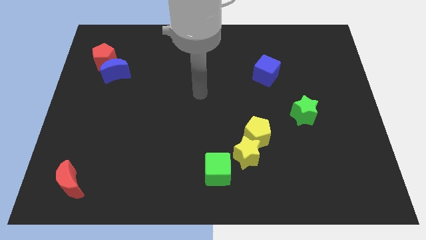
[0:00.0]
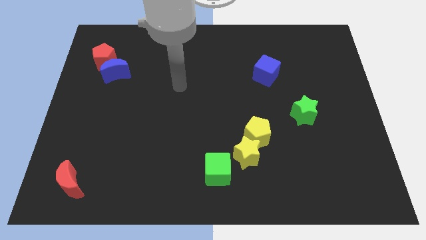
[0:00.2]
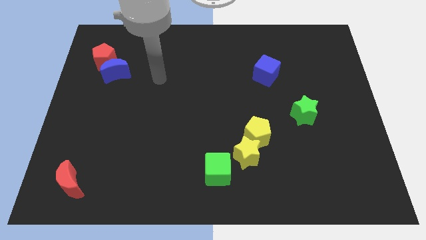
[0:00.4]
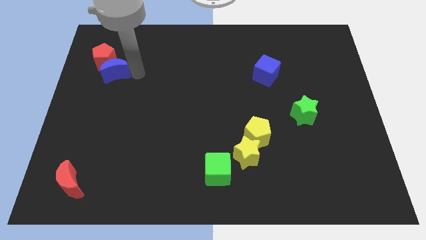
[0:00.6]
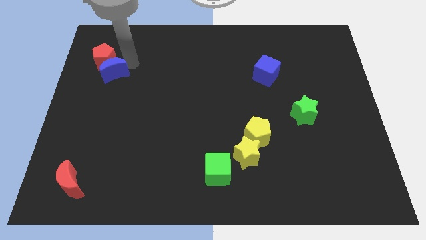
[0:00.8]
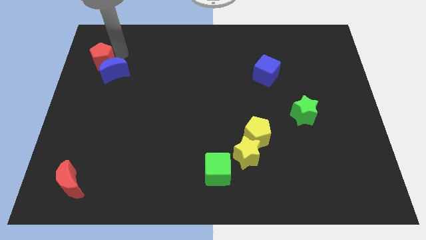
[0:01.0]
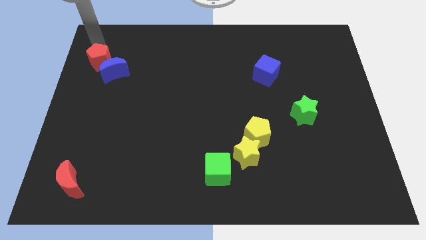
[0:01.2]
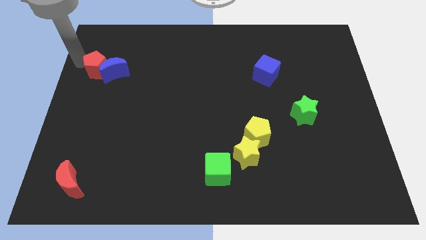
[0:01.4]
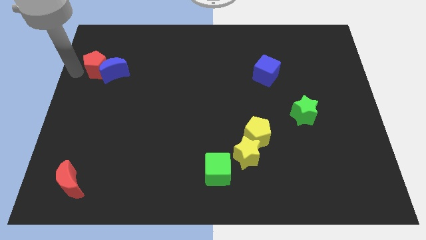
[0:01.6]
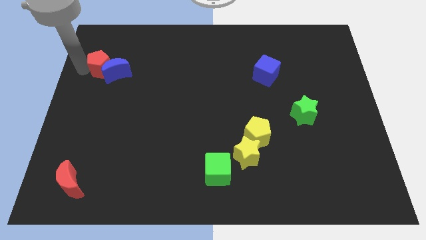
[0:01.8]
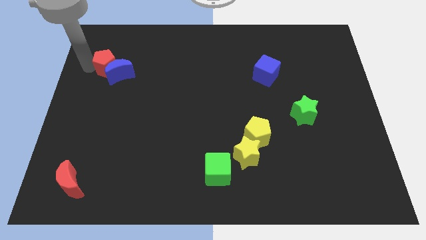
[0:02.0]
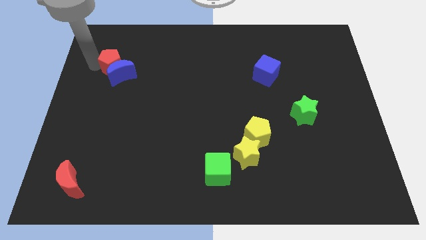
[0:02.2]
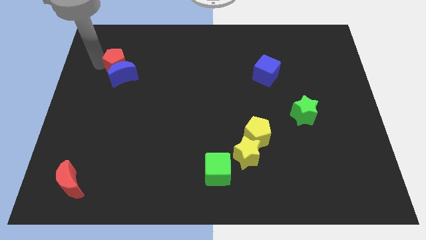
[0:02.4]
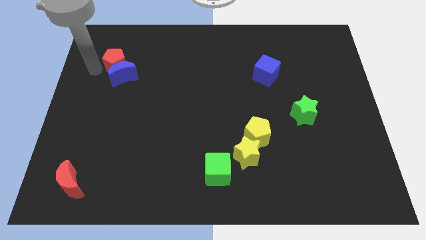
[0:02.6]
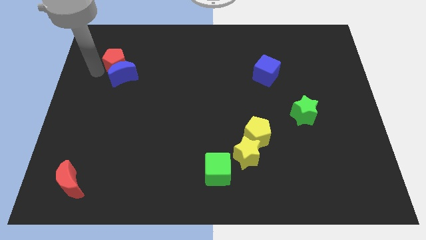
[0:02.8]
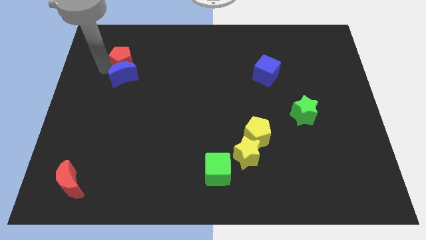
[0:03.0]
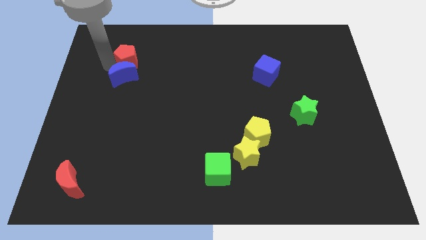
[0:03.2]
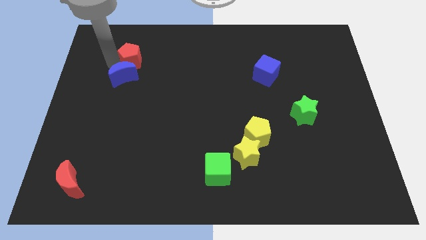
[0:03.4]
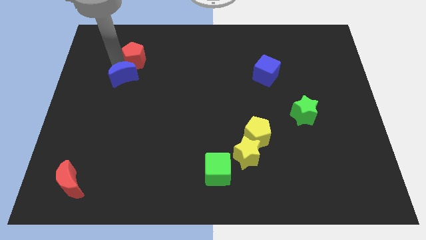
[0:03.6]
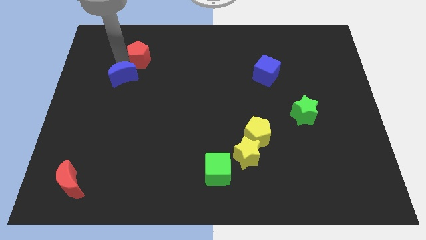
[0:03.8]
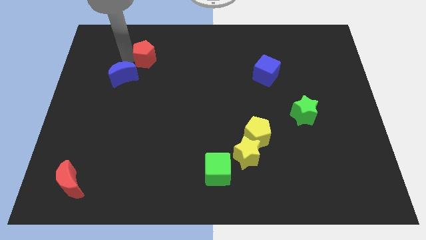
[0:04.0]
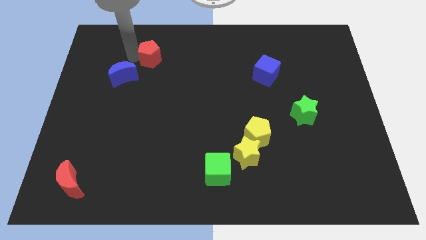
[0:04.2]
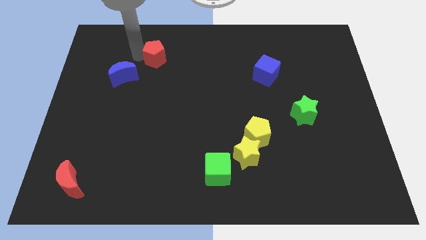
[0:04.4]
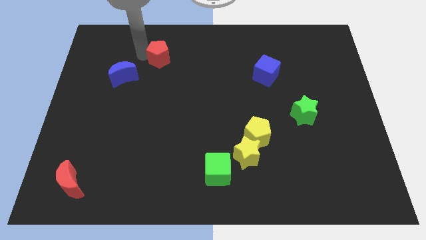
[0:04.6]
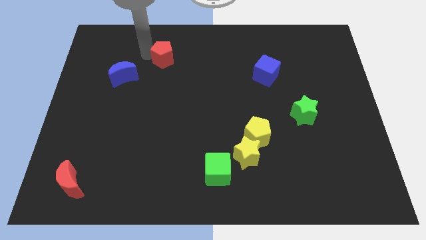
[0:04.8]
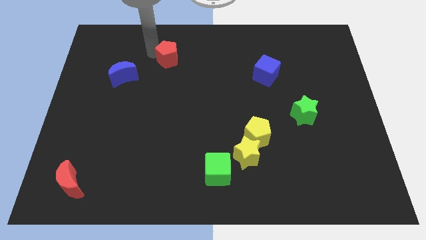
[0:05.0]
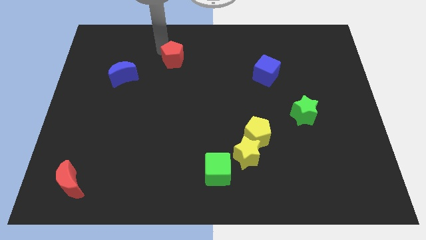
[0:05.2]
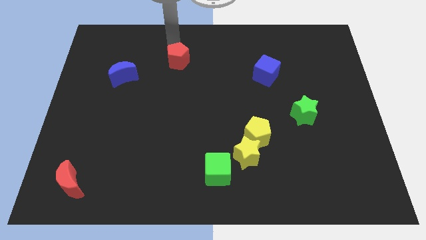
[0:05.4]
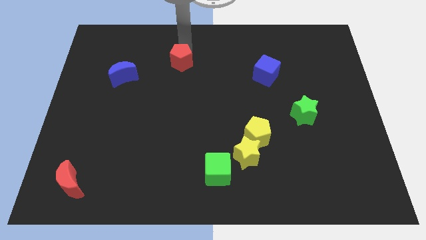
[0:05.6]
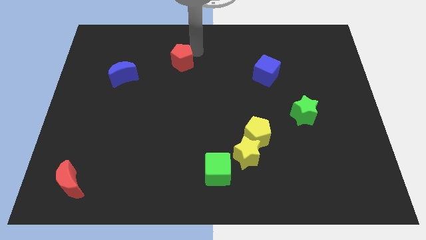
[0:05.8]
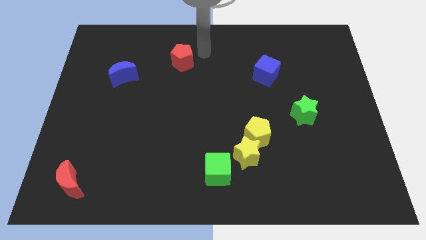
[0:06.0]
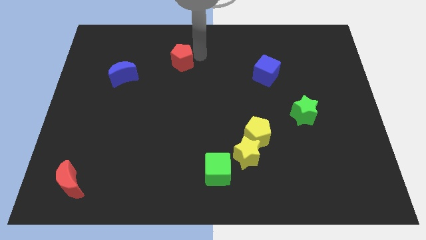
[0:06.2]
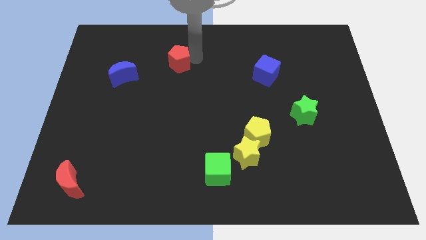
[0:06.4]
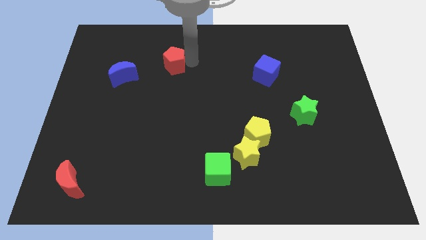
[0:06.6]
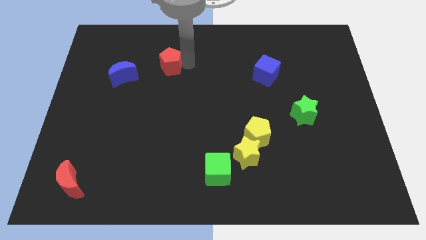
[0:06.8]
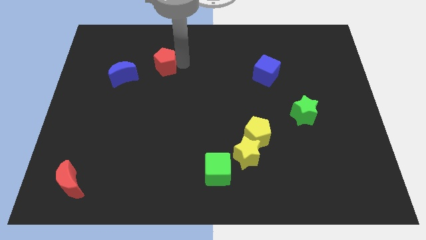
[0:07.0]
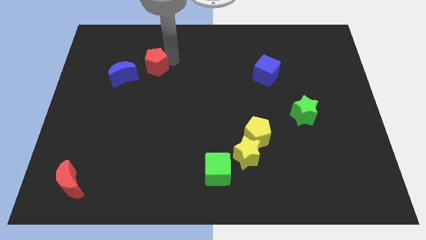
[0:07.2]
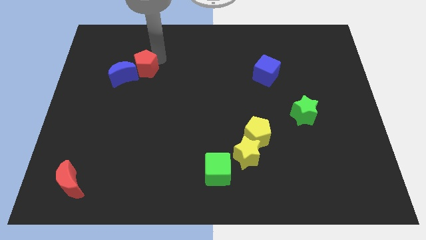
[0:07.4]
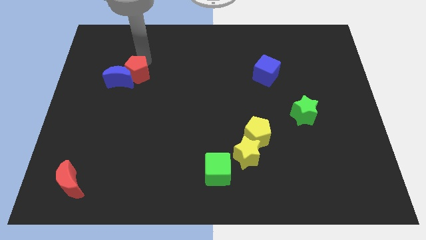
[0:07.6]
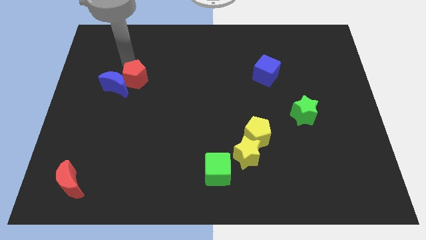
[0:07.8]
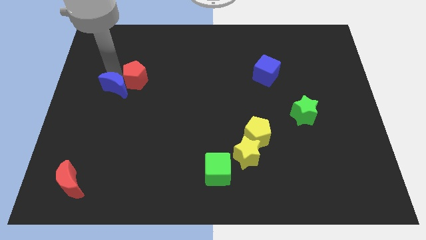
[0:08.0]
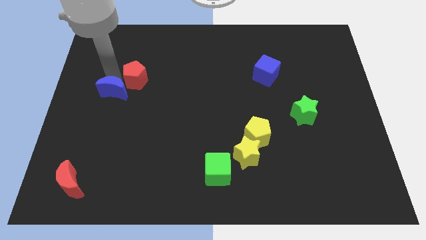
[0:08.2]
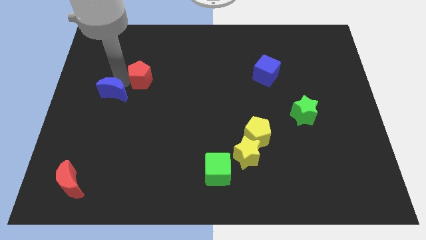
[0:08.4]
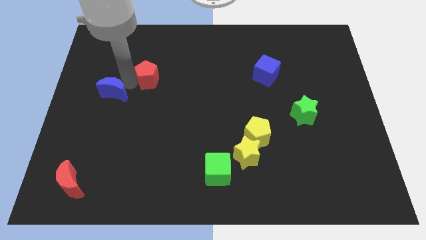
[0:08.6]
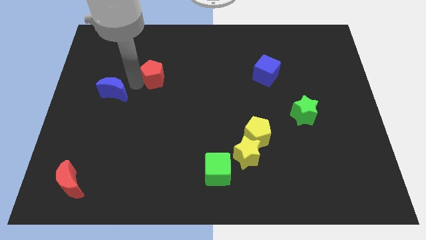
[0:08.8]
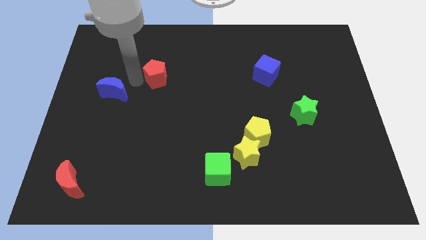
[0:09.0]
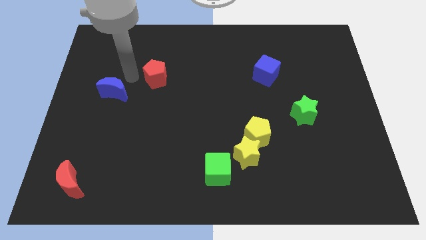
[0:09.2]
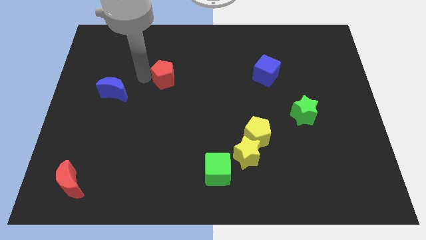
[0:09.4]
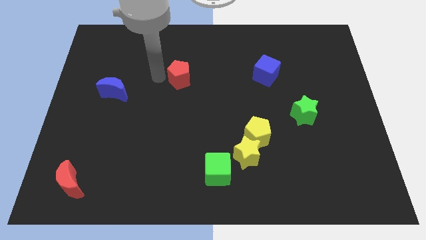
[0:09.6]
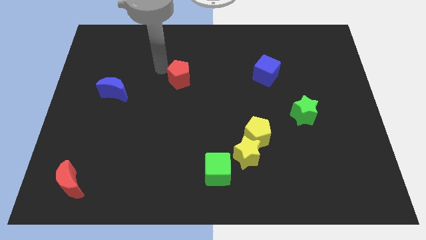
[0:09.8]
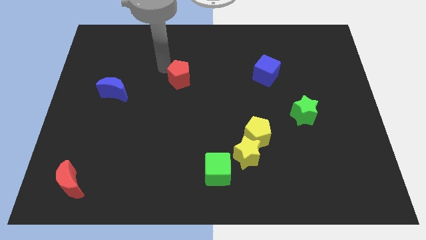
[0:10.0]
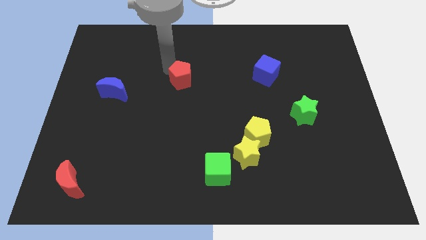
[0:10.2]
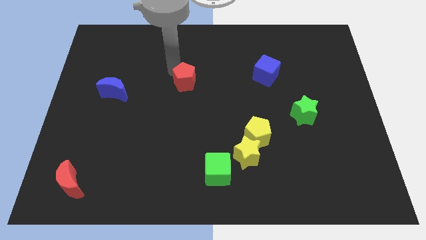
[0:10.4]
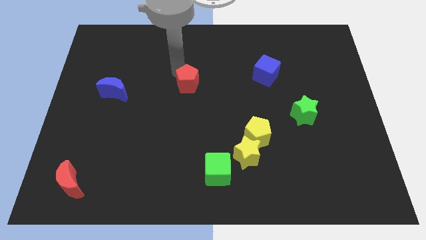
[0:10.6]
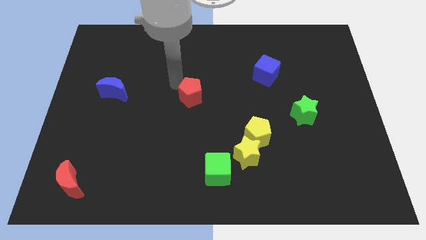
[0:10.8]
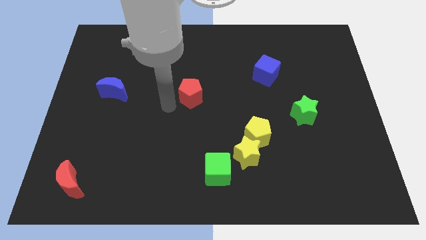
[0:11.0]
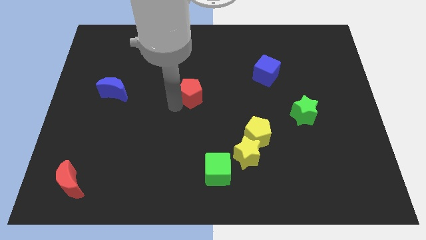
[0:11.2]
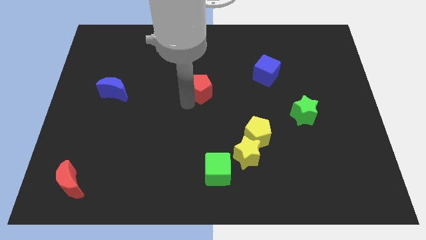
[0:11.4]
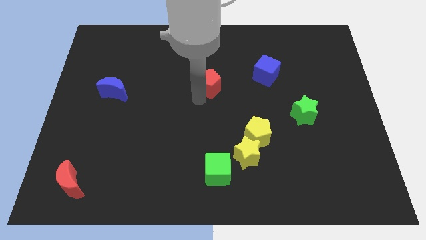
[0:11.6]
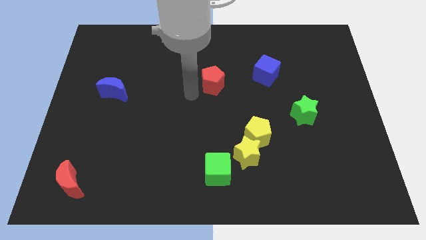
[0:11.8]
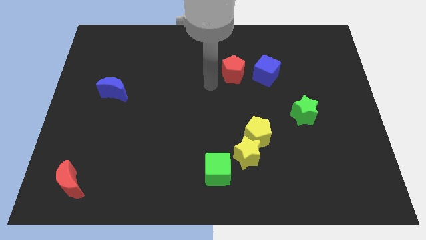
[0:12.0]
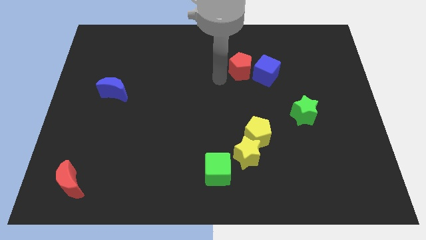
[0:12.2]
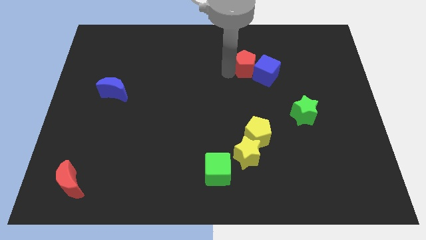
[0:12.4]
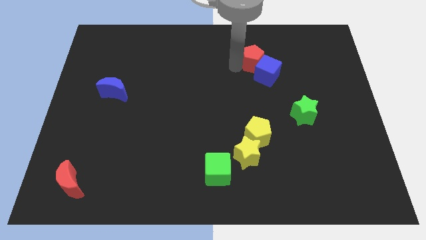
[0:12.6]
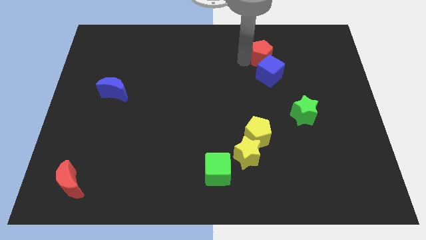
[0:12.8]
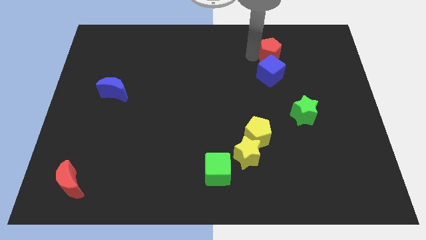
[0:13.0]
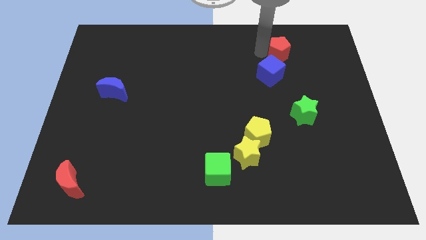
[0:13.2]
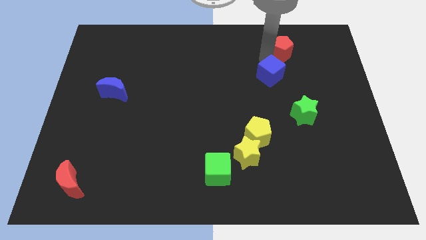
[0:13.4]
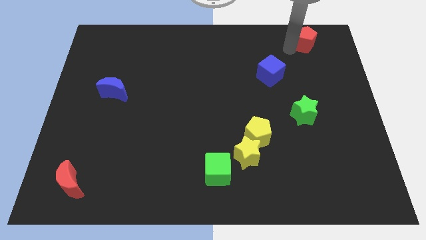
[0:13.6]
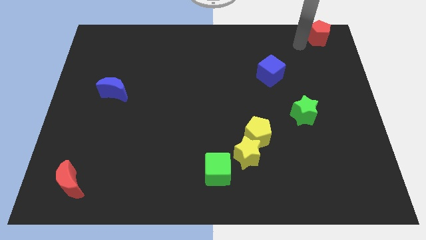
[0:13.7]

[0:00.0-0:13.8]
put the red pentagon to the top right corner

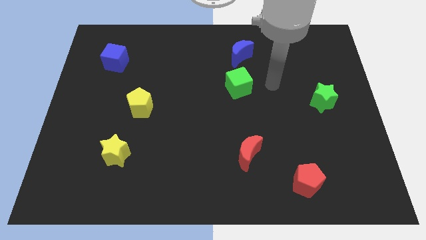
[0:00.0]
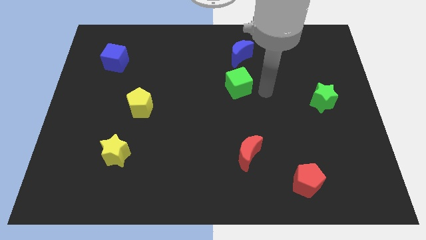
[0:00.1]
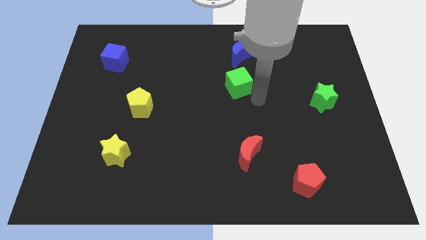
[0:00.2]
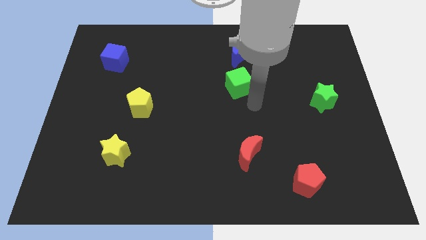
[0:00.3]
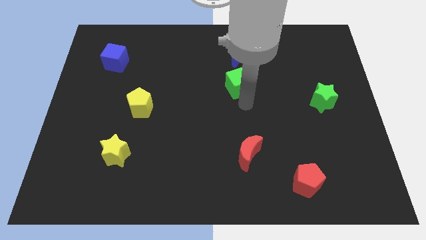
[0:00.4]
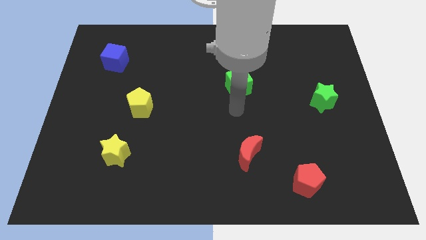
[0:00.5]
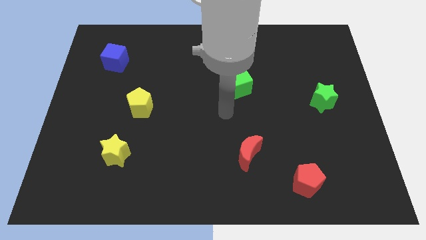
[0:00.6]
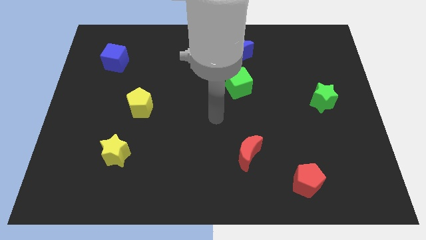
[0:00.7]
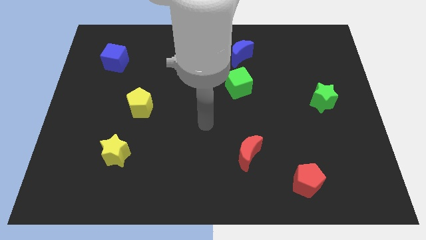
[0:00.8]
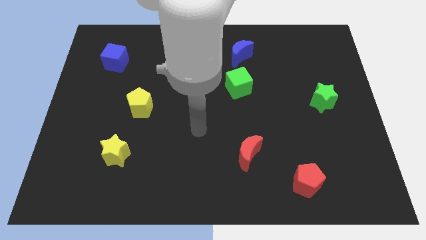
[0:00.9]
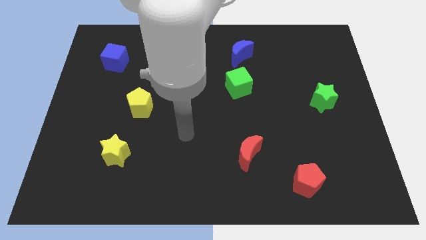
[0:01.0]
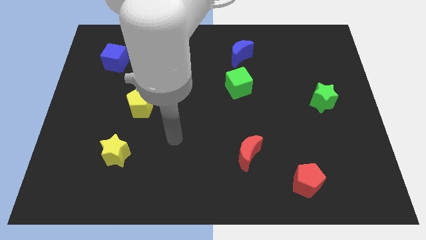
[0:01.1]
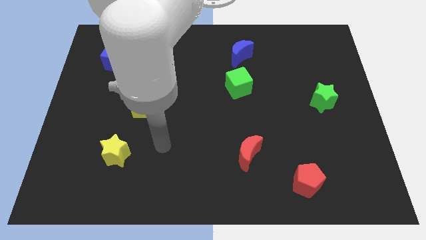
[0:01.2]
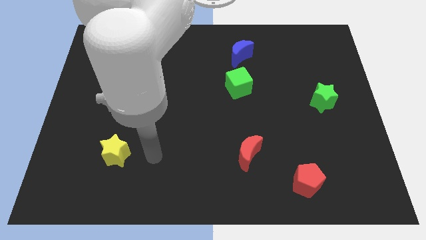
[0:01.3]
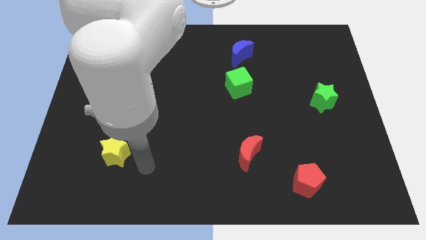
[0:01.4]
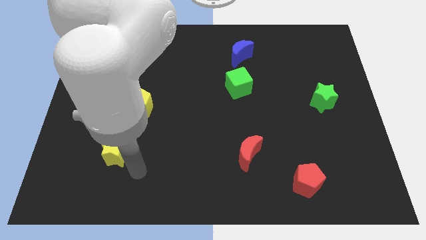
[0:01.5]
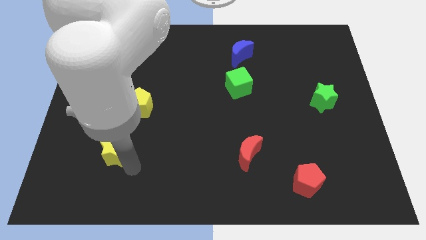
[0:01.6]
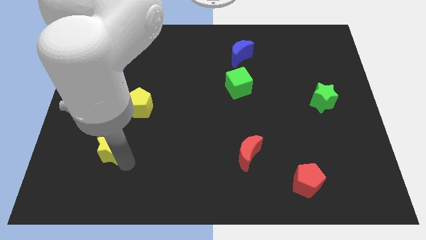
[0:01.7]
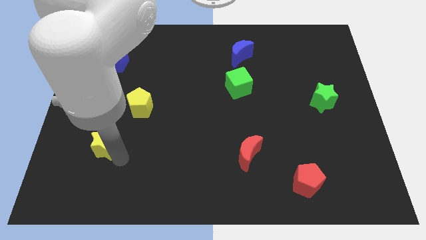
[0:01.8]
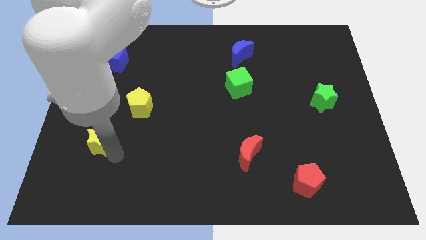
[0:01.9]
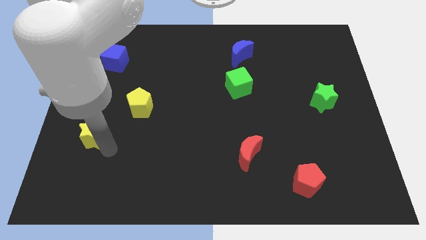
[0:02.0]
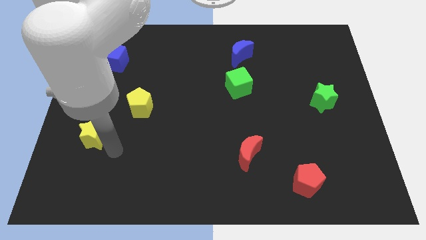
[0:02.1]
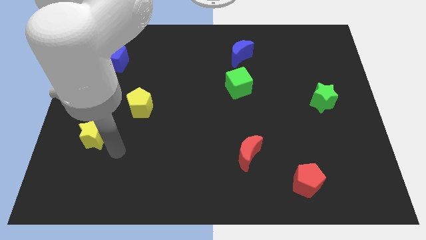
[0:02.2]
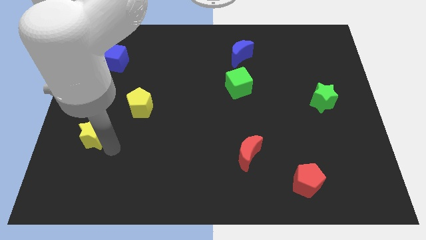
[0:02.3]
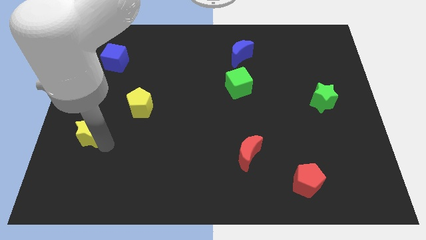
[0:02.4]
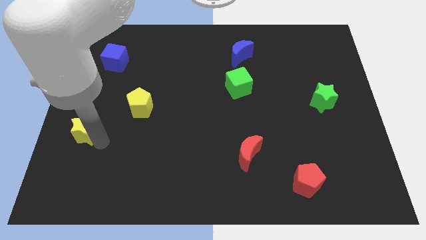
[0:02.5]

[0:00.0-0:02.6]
push the yellow star to the left side
